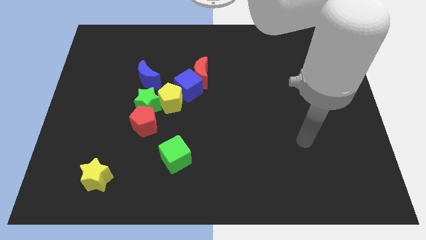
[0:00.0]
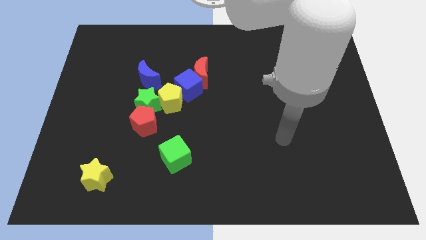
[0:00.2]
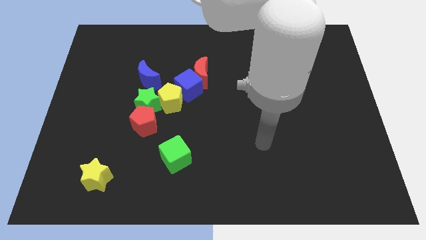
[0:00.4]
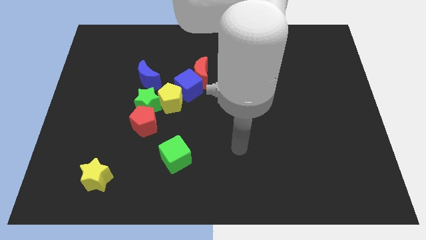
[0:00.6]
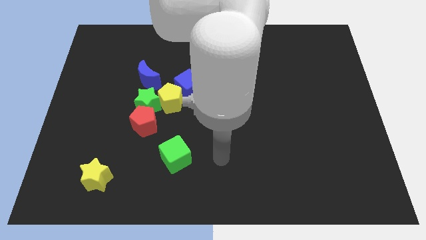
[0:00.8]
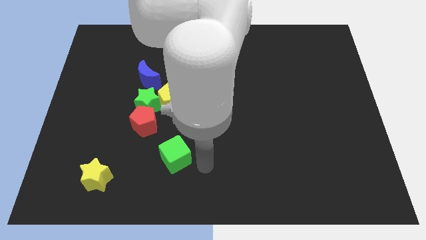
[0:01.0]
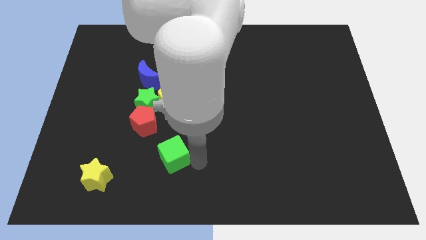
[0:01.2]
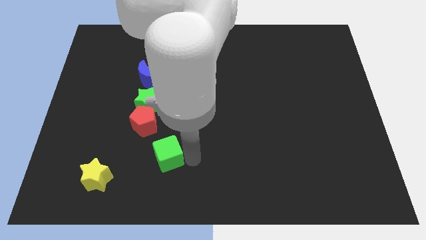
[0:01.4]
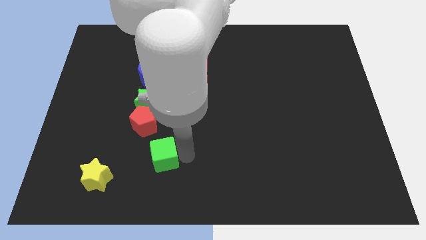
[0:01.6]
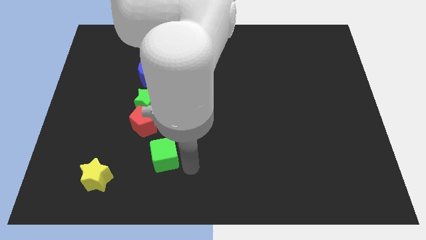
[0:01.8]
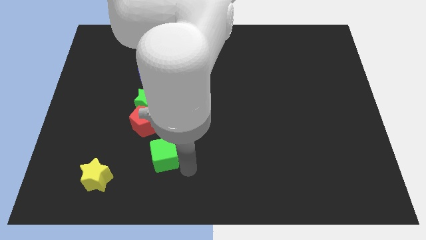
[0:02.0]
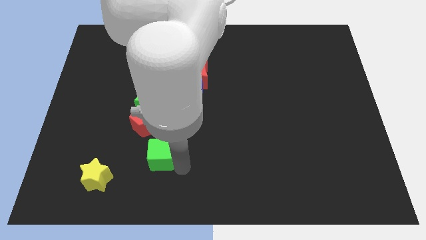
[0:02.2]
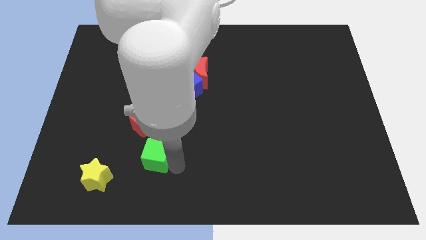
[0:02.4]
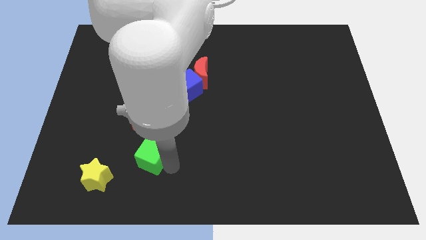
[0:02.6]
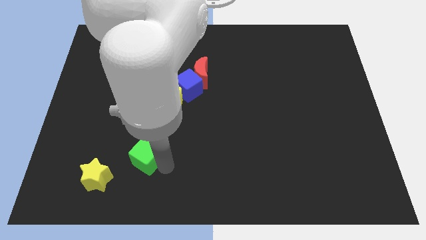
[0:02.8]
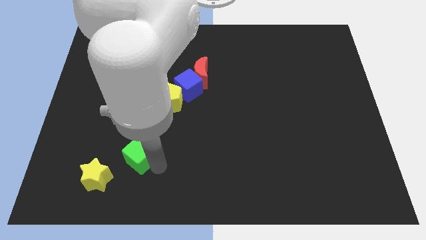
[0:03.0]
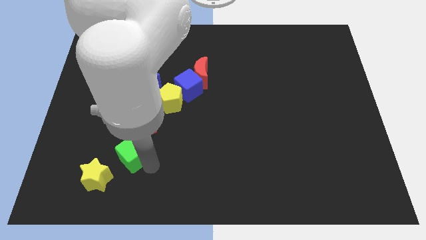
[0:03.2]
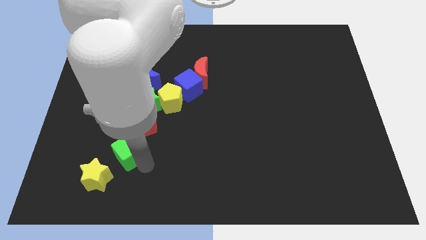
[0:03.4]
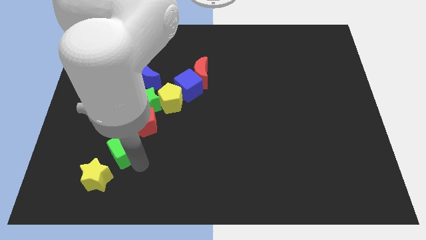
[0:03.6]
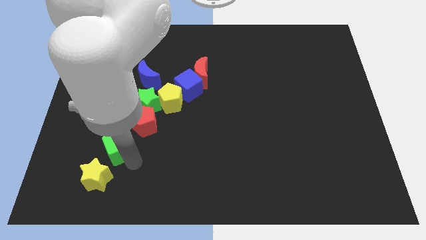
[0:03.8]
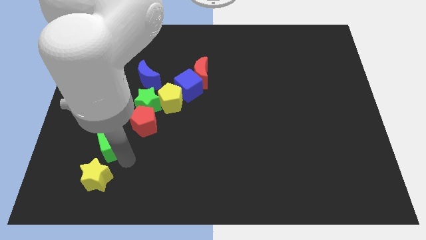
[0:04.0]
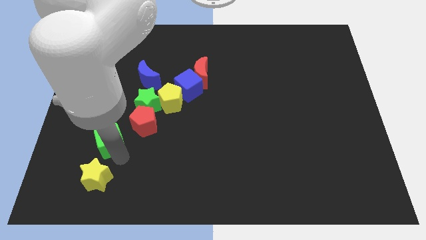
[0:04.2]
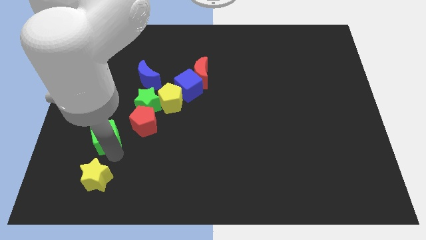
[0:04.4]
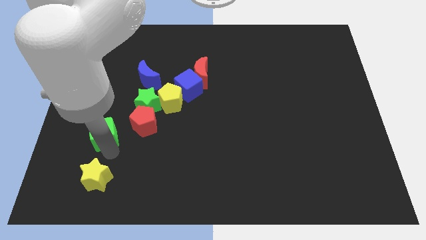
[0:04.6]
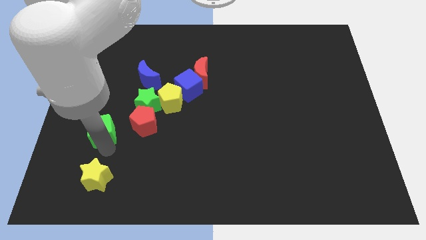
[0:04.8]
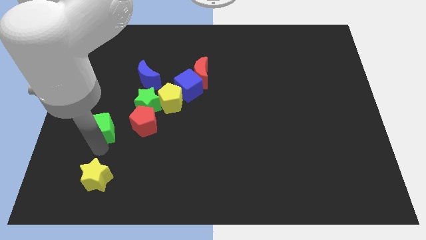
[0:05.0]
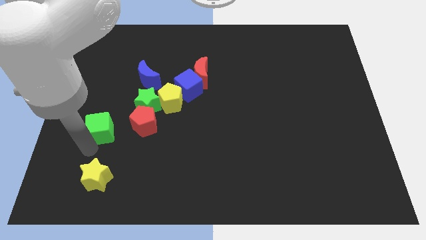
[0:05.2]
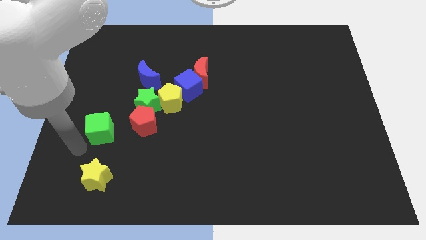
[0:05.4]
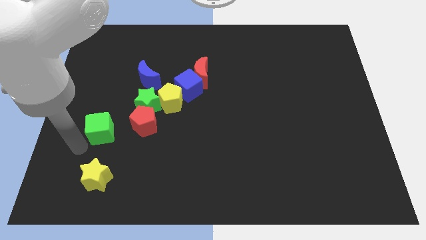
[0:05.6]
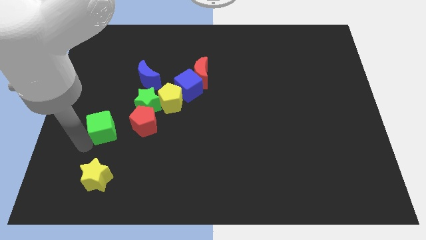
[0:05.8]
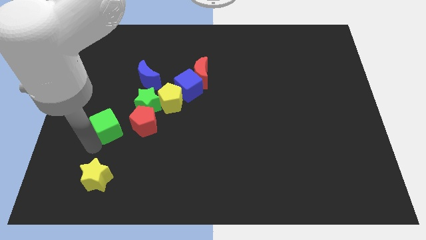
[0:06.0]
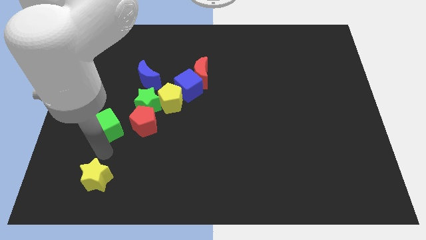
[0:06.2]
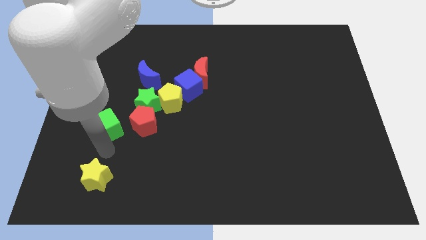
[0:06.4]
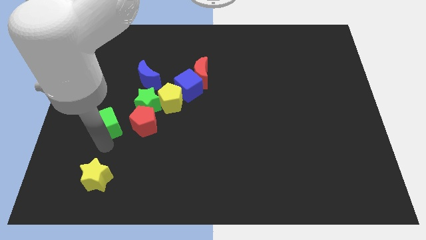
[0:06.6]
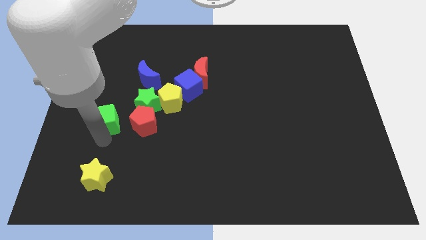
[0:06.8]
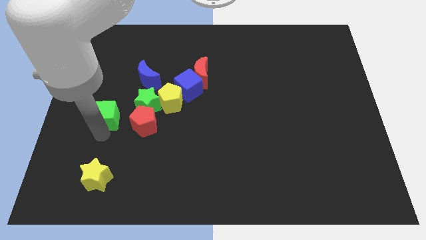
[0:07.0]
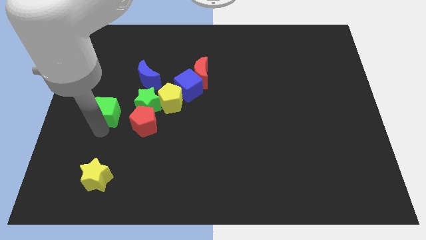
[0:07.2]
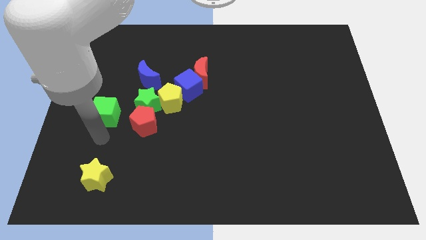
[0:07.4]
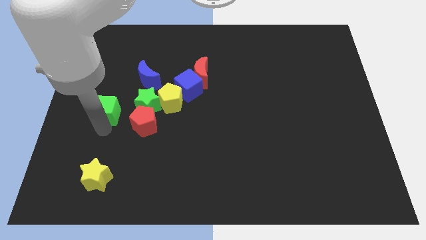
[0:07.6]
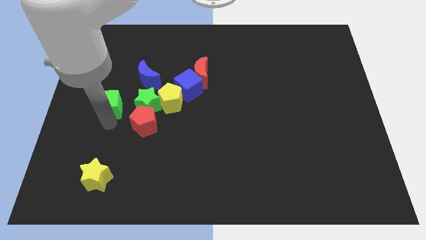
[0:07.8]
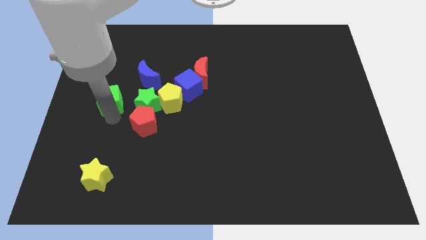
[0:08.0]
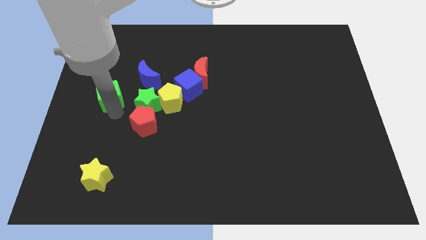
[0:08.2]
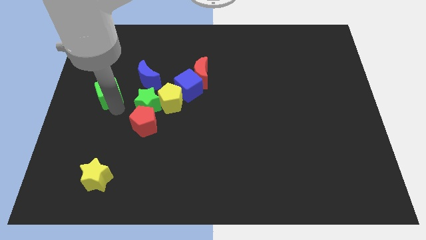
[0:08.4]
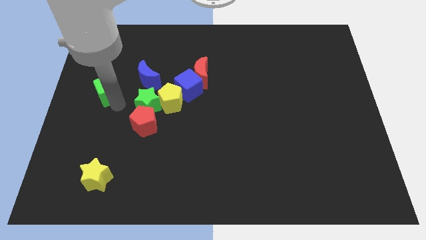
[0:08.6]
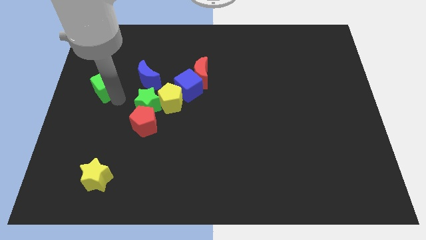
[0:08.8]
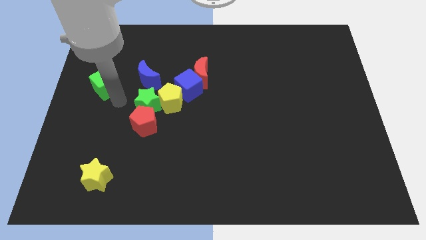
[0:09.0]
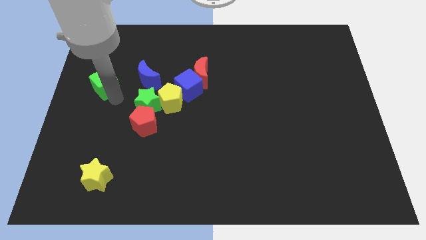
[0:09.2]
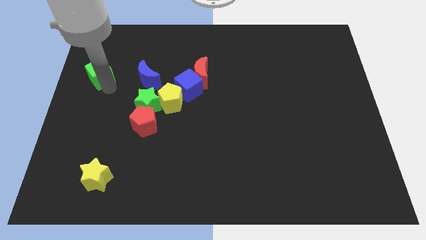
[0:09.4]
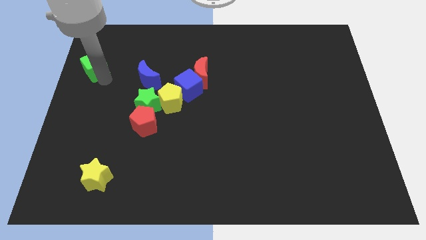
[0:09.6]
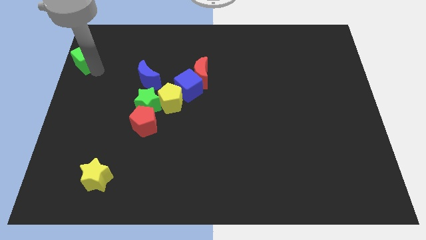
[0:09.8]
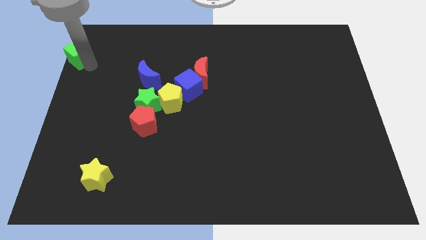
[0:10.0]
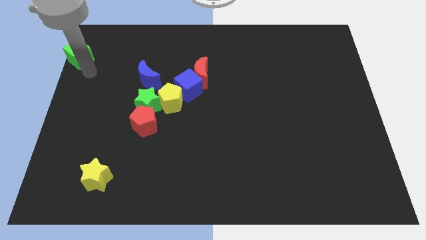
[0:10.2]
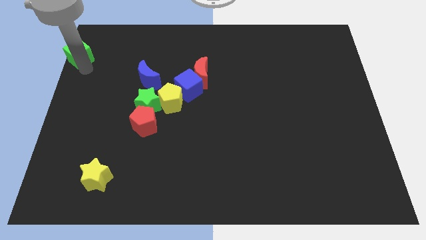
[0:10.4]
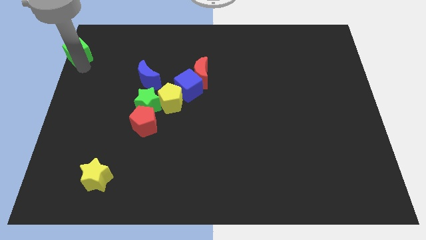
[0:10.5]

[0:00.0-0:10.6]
slide the green cube to the upper left corner

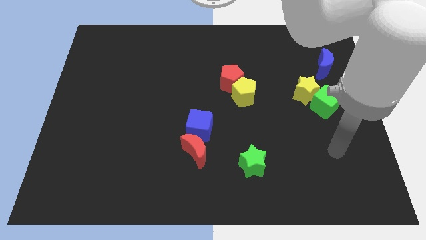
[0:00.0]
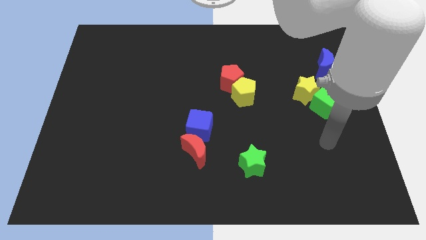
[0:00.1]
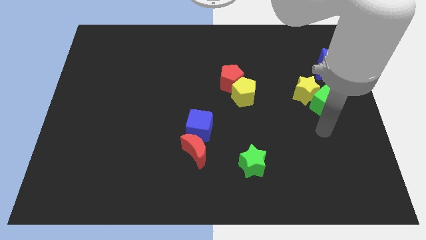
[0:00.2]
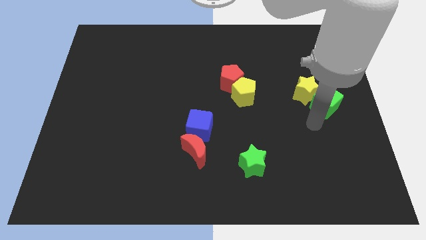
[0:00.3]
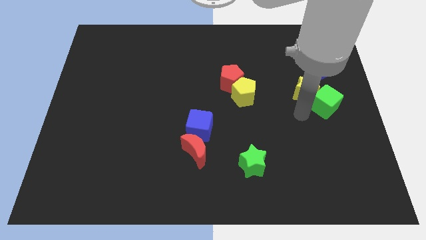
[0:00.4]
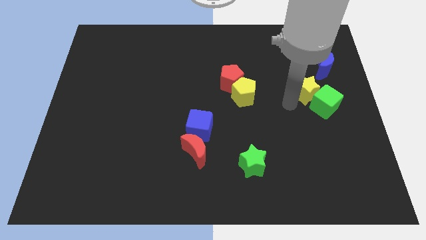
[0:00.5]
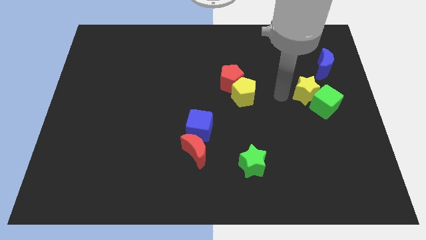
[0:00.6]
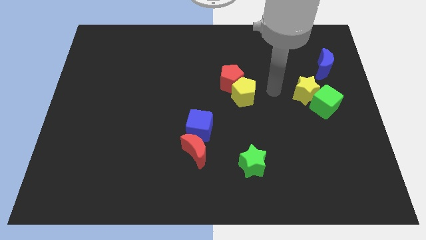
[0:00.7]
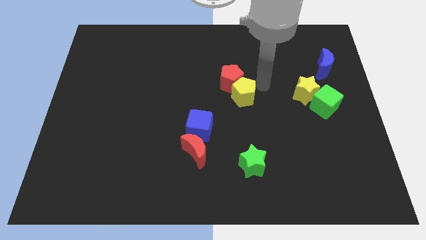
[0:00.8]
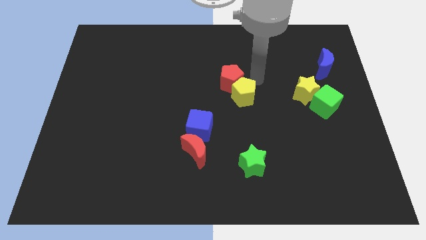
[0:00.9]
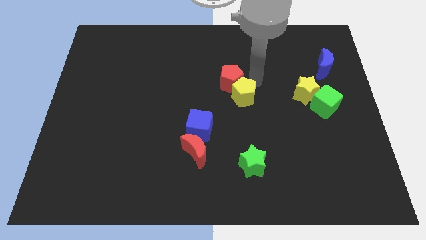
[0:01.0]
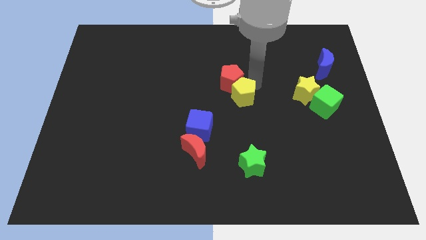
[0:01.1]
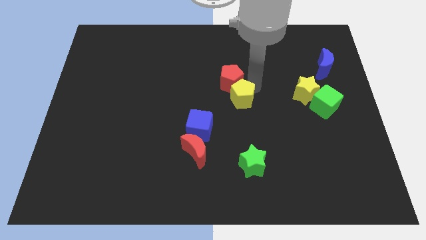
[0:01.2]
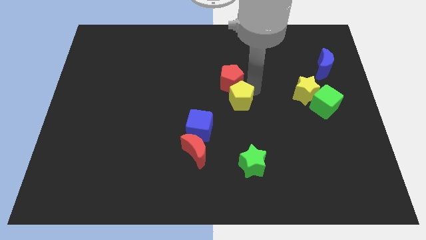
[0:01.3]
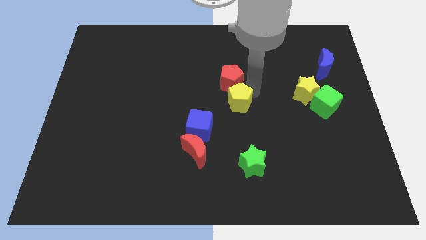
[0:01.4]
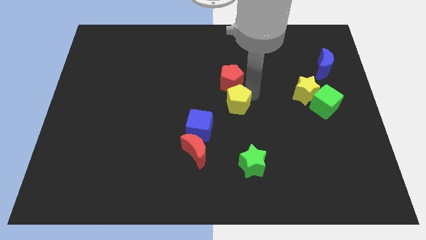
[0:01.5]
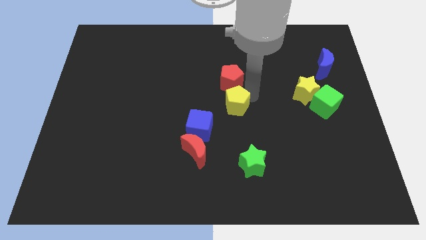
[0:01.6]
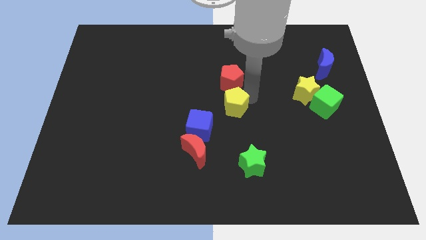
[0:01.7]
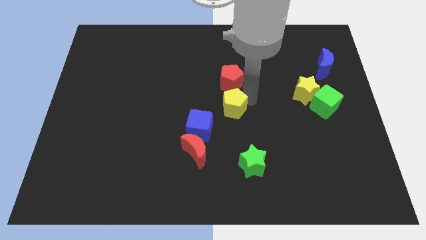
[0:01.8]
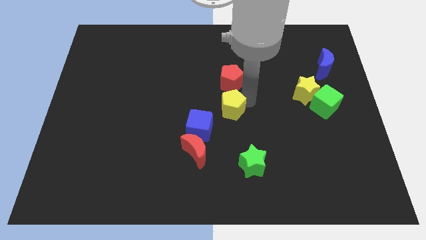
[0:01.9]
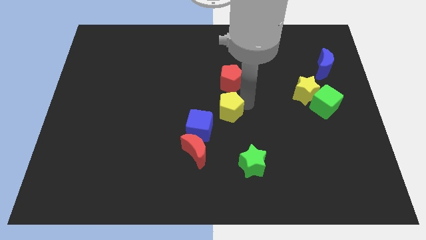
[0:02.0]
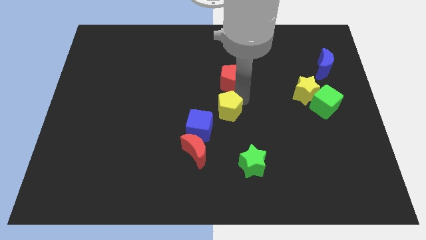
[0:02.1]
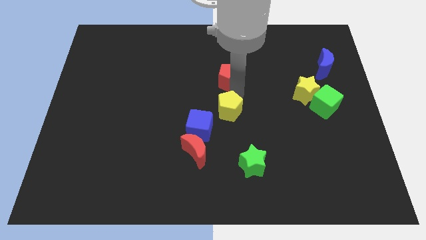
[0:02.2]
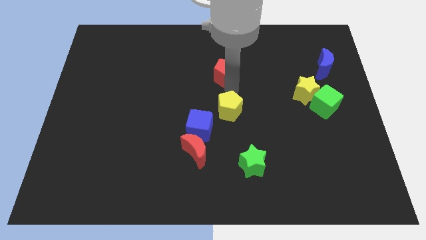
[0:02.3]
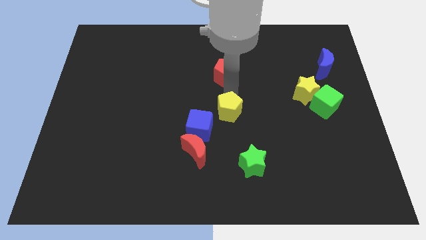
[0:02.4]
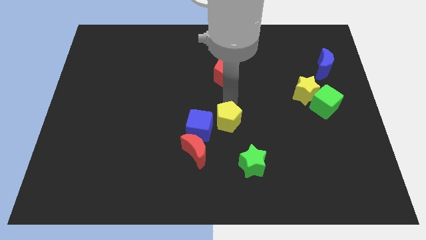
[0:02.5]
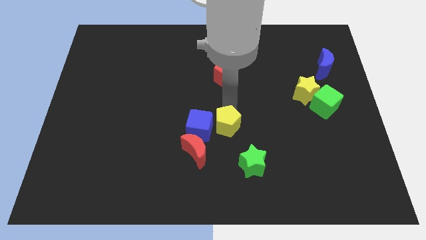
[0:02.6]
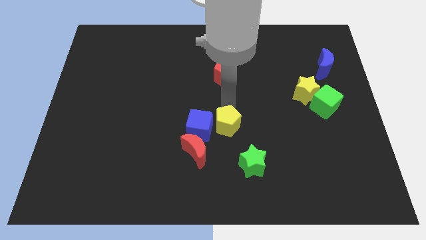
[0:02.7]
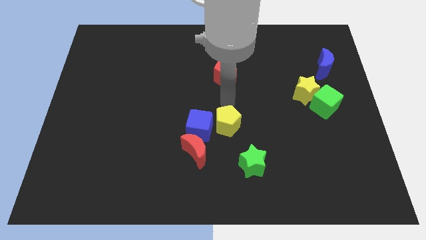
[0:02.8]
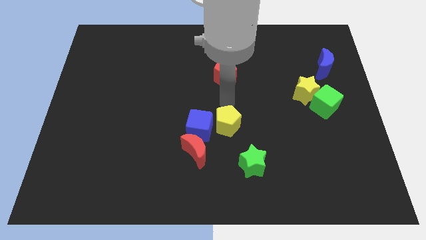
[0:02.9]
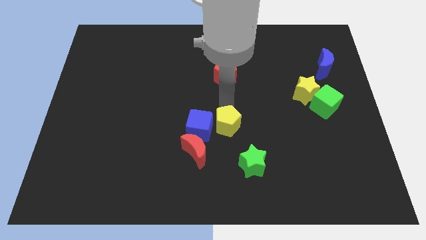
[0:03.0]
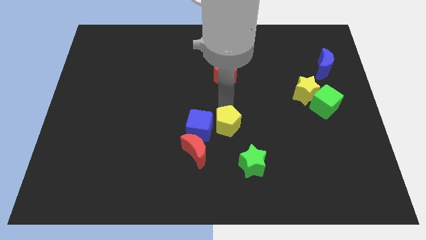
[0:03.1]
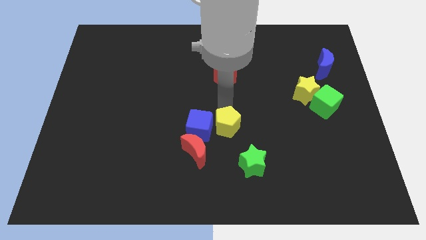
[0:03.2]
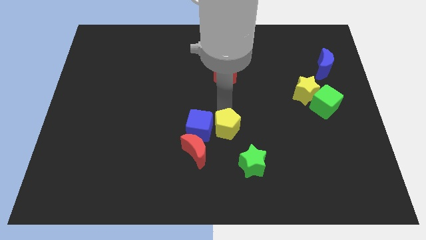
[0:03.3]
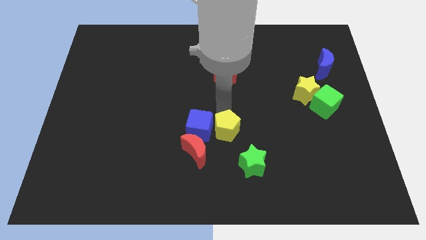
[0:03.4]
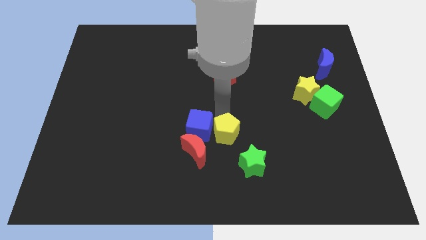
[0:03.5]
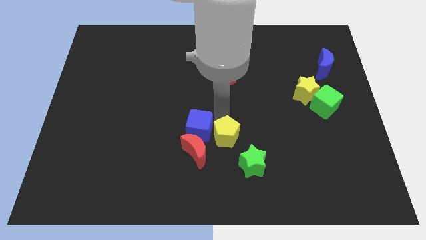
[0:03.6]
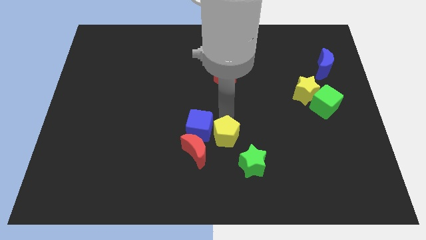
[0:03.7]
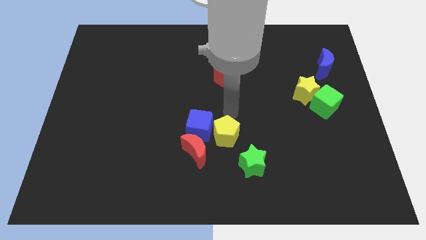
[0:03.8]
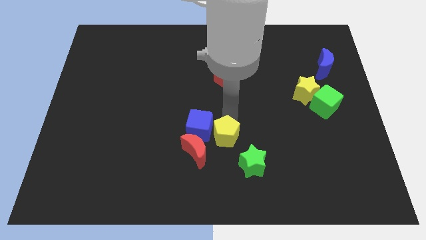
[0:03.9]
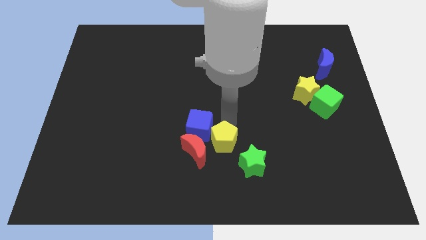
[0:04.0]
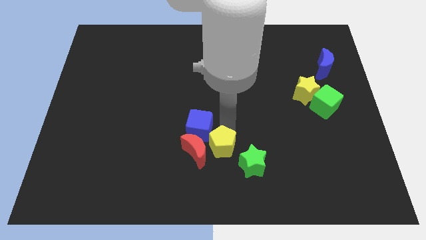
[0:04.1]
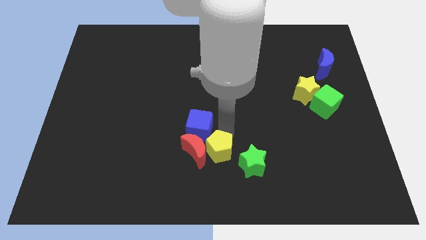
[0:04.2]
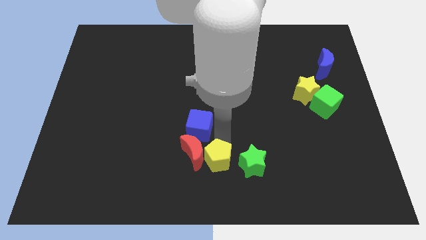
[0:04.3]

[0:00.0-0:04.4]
push the yellow pentagon to the bottom
